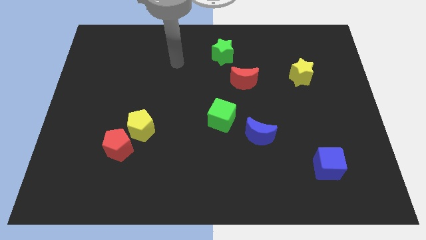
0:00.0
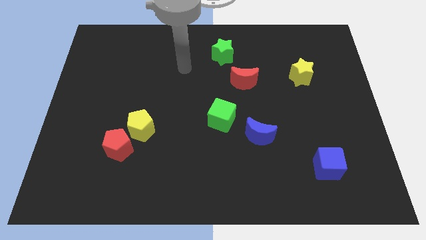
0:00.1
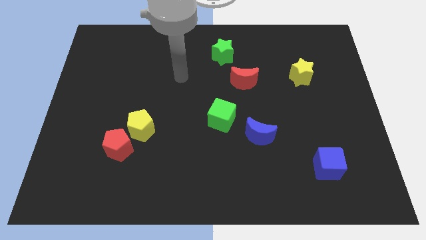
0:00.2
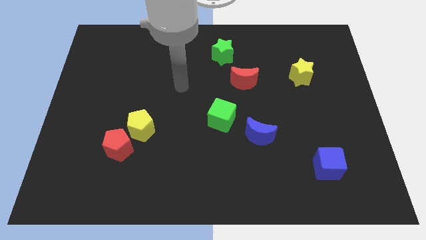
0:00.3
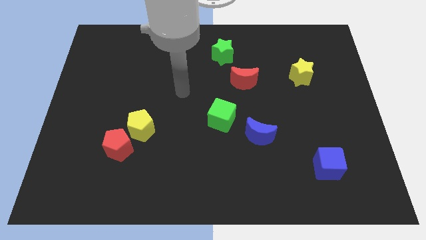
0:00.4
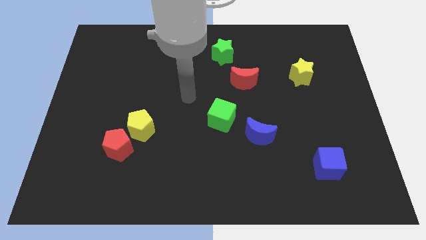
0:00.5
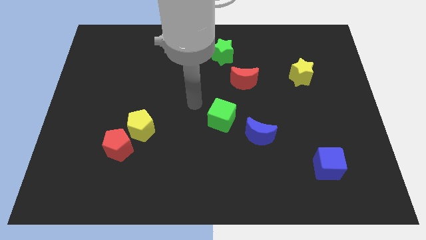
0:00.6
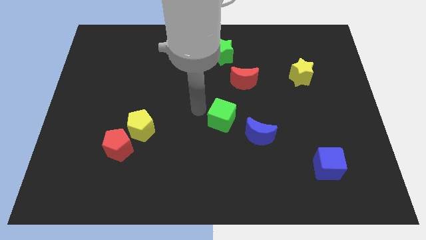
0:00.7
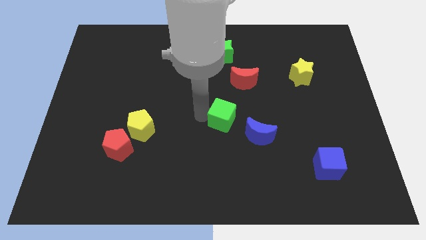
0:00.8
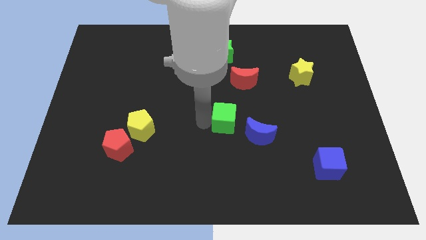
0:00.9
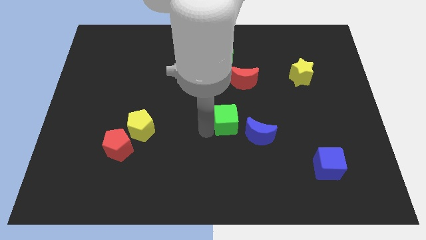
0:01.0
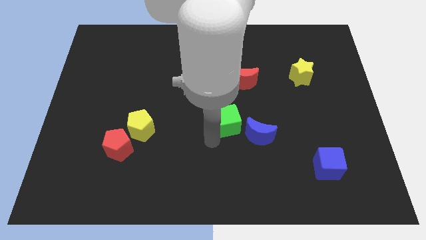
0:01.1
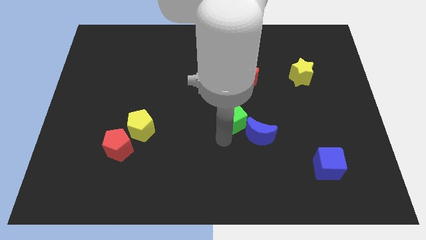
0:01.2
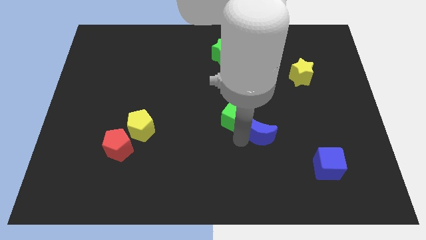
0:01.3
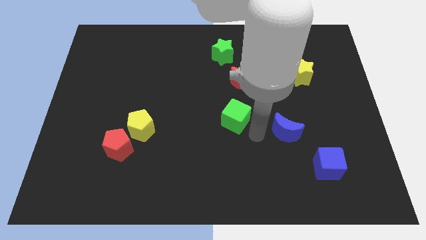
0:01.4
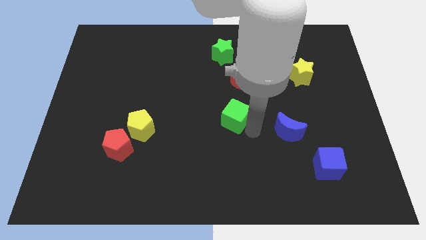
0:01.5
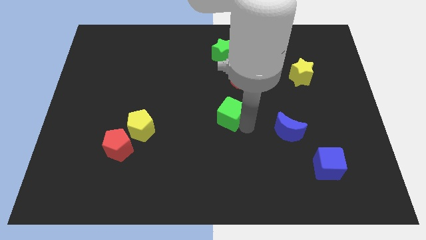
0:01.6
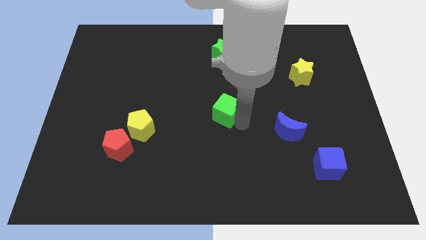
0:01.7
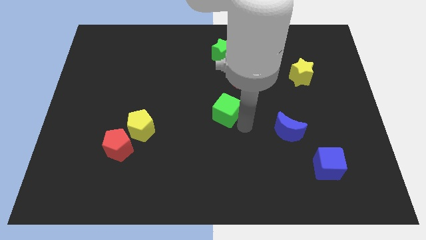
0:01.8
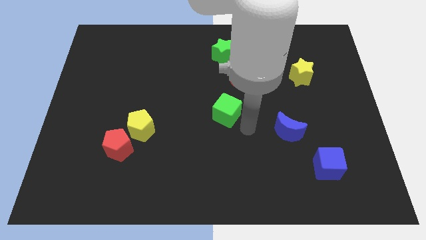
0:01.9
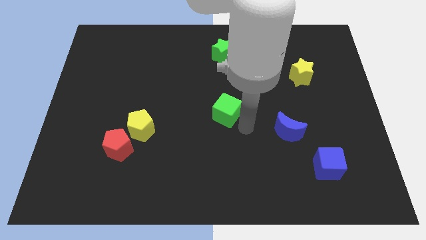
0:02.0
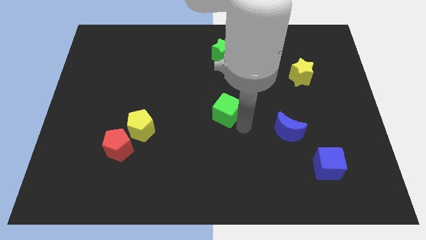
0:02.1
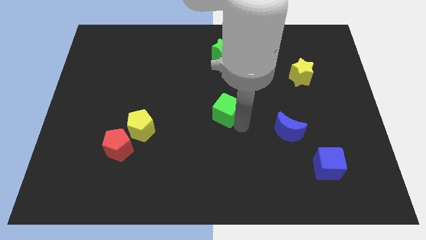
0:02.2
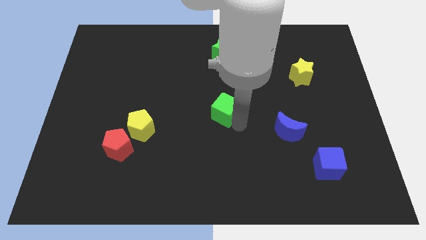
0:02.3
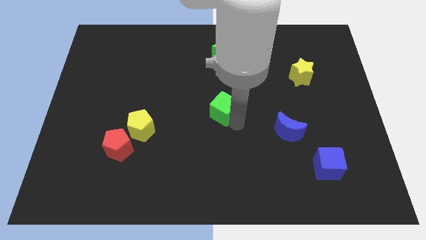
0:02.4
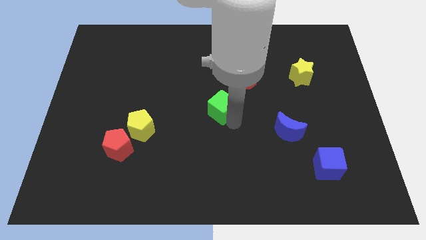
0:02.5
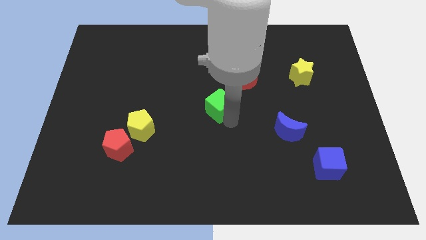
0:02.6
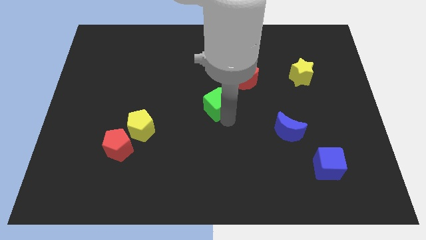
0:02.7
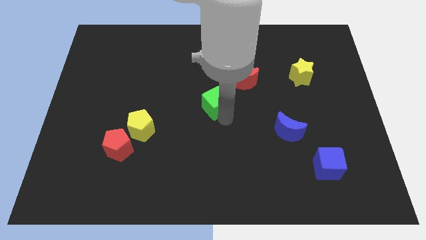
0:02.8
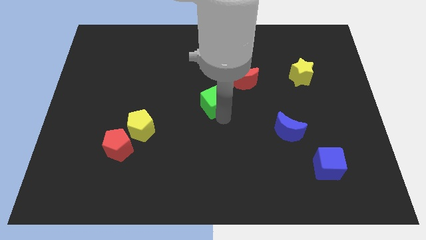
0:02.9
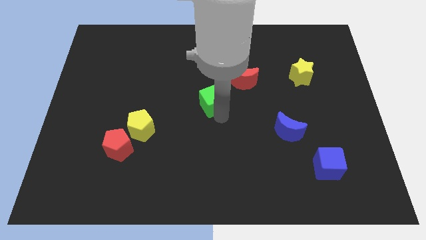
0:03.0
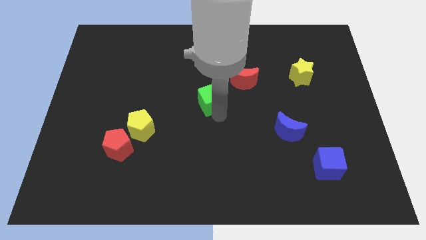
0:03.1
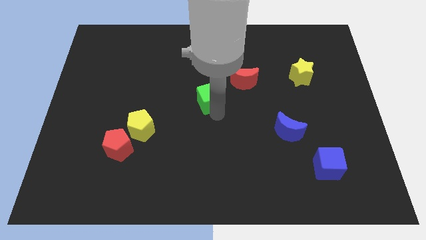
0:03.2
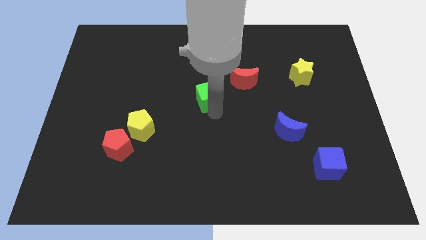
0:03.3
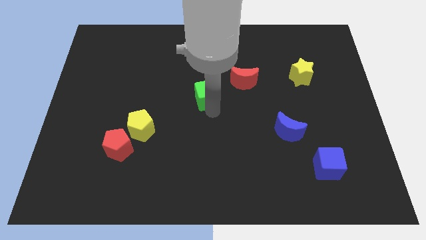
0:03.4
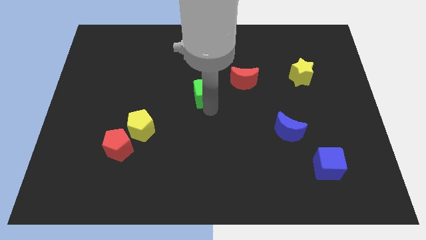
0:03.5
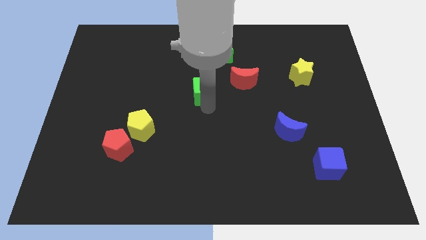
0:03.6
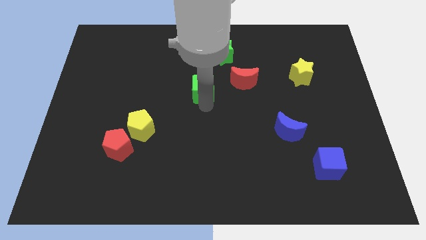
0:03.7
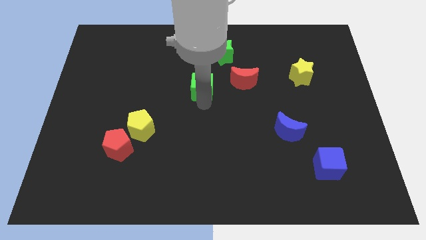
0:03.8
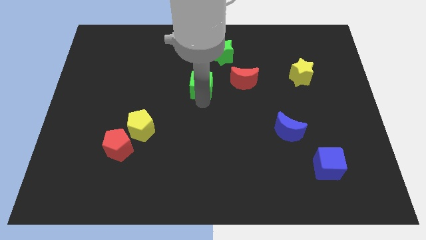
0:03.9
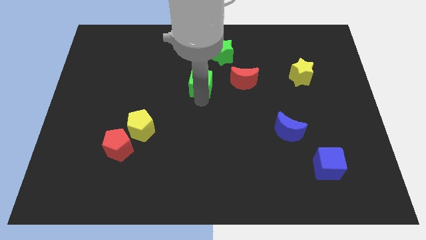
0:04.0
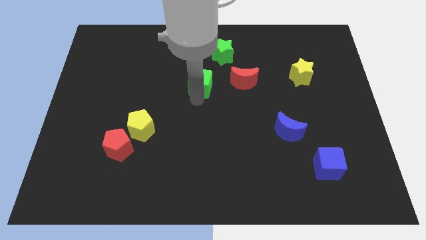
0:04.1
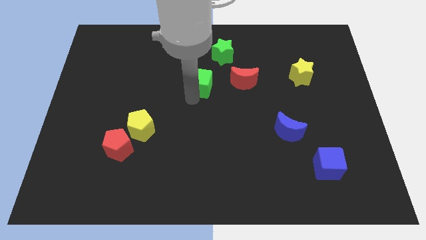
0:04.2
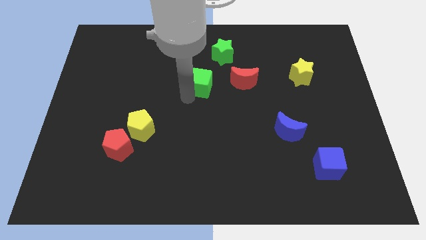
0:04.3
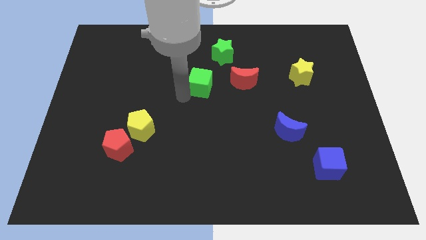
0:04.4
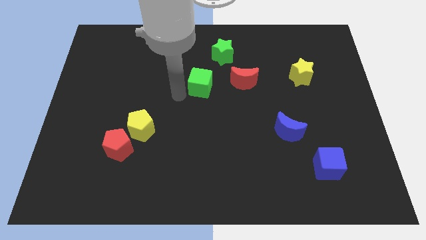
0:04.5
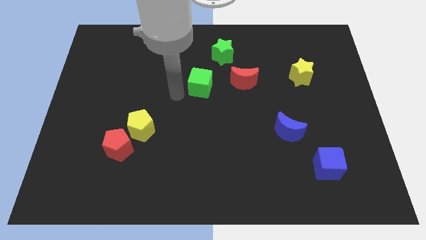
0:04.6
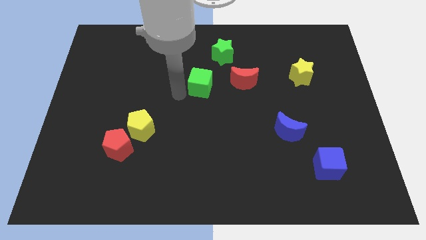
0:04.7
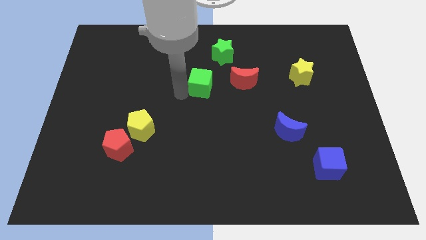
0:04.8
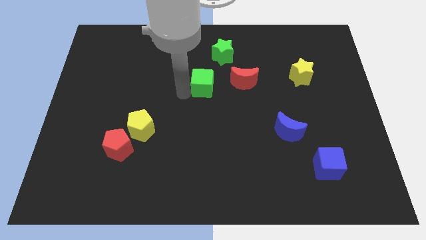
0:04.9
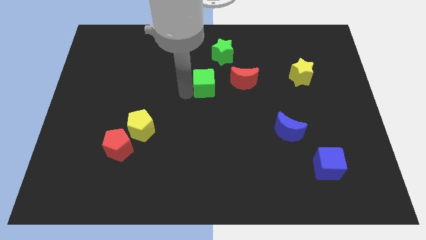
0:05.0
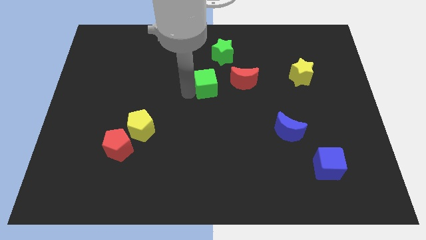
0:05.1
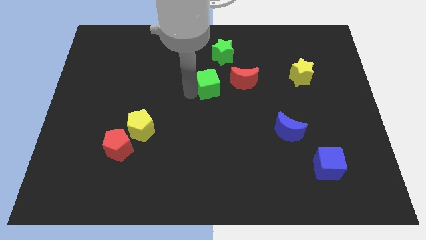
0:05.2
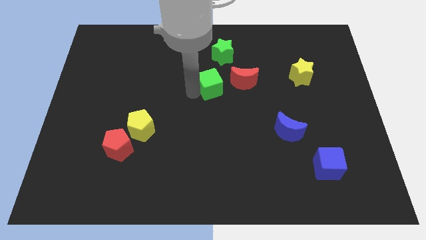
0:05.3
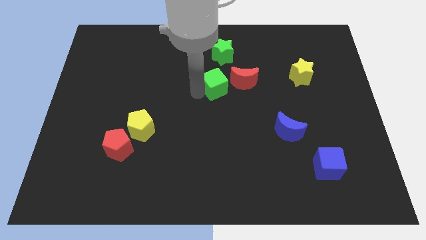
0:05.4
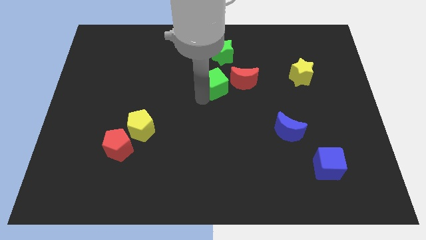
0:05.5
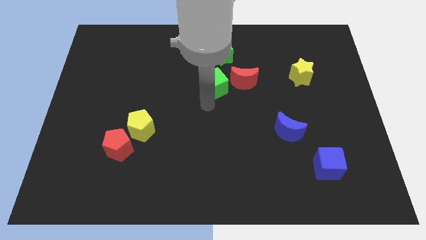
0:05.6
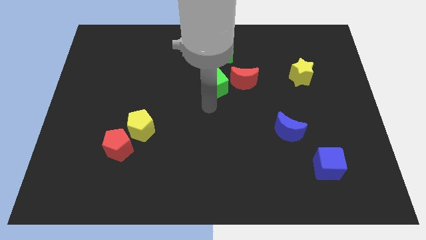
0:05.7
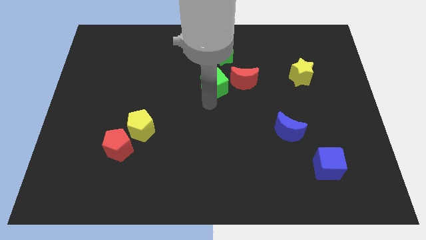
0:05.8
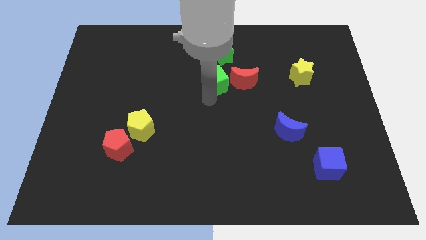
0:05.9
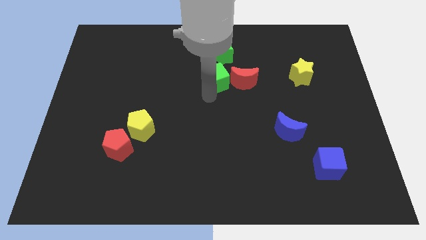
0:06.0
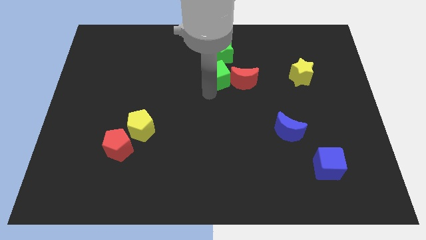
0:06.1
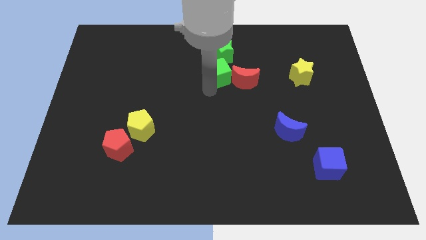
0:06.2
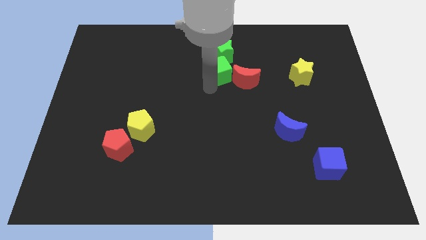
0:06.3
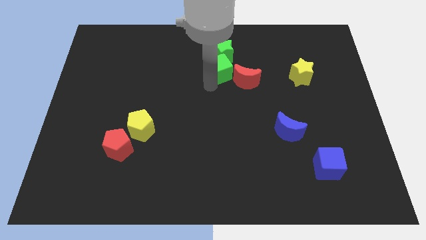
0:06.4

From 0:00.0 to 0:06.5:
slide the green cube next to the green star

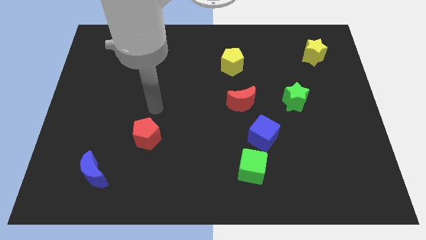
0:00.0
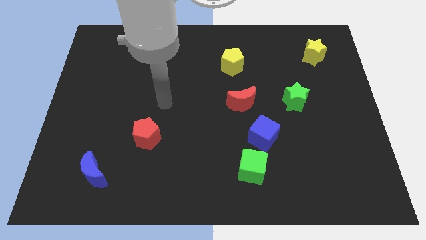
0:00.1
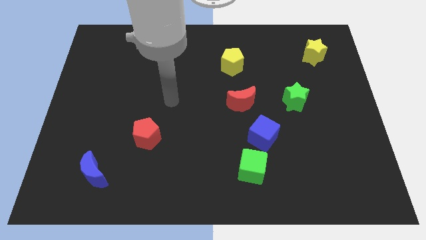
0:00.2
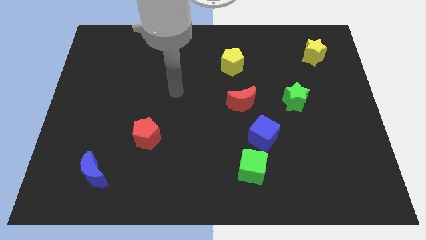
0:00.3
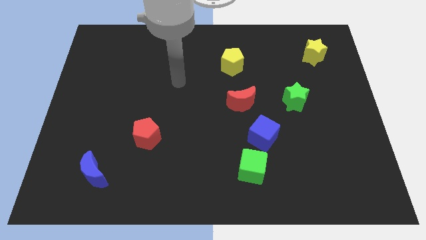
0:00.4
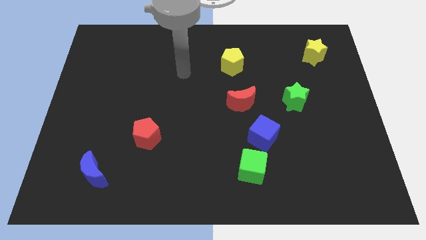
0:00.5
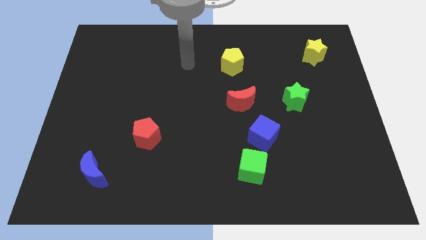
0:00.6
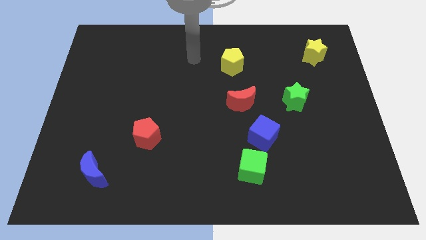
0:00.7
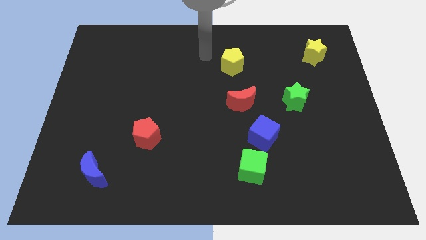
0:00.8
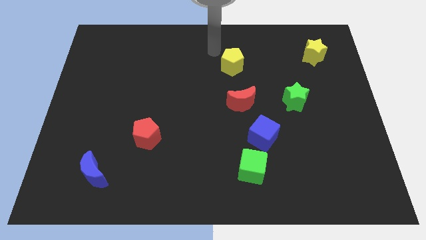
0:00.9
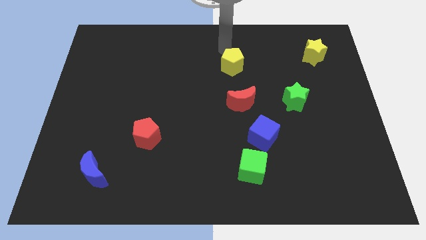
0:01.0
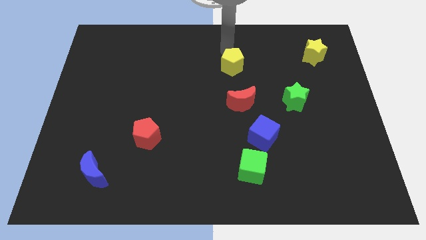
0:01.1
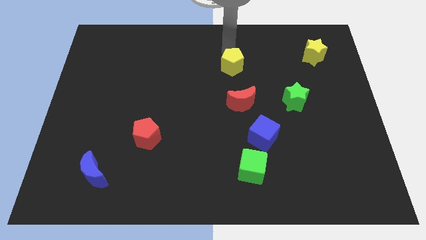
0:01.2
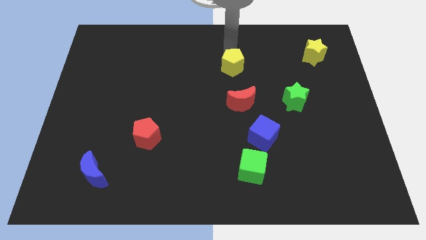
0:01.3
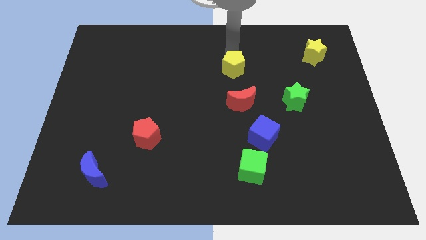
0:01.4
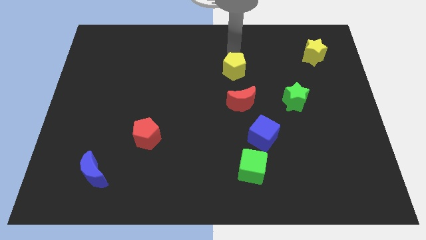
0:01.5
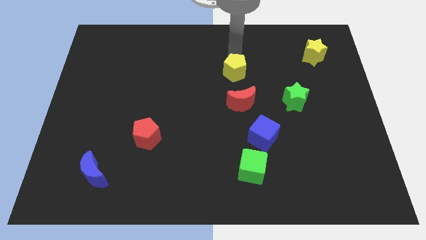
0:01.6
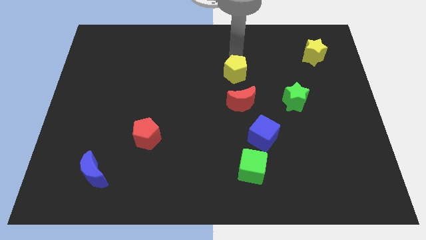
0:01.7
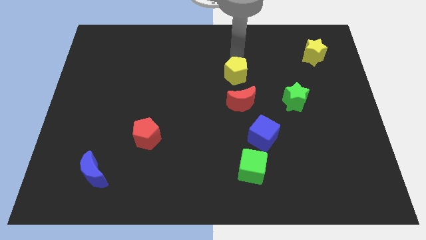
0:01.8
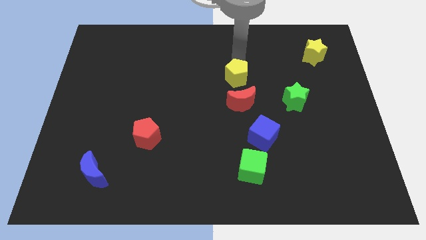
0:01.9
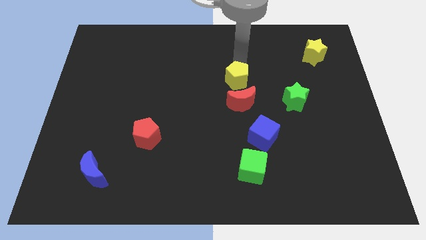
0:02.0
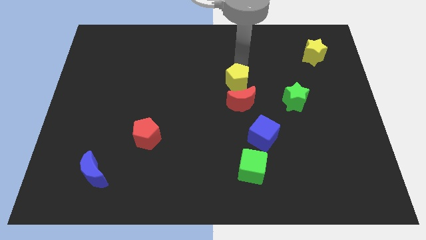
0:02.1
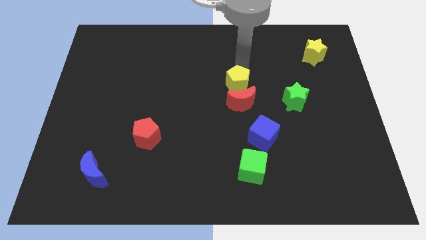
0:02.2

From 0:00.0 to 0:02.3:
put the yellow pentagon to the red moon
